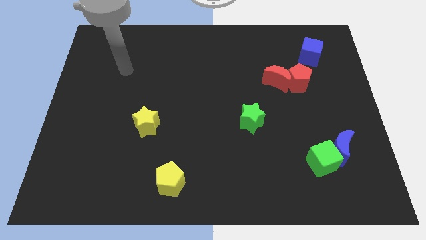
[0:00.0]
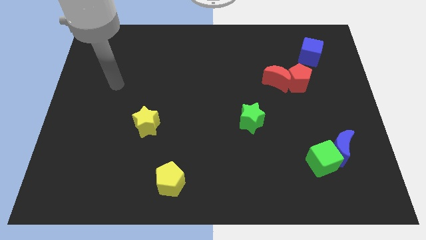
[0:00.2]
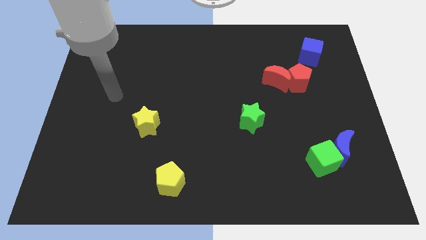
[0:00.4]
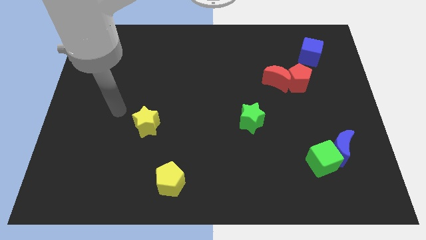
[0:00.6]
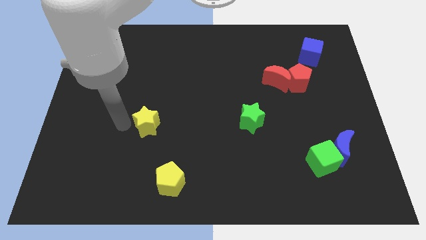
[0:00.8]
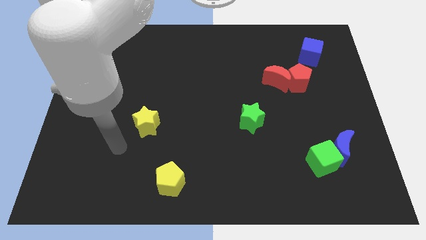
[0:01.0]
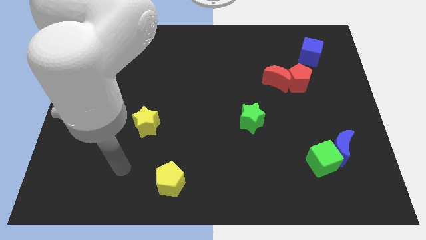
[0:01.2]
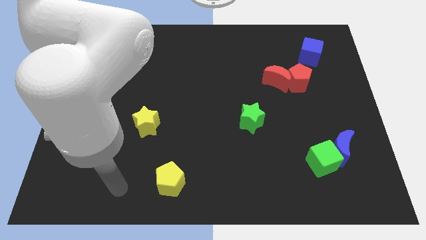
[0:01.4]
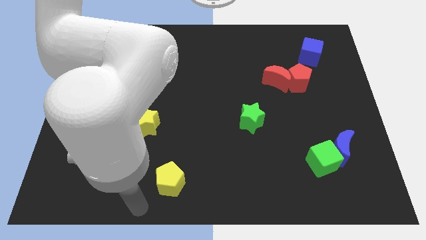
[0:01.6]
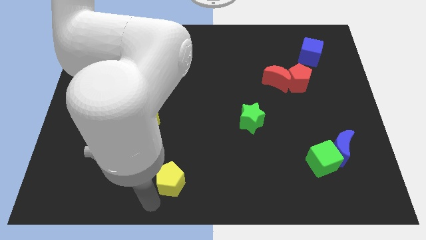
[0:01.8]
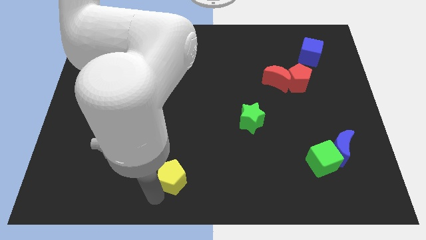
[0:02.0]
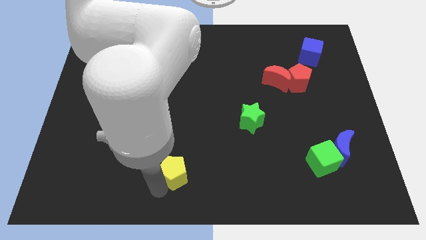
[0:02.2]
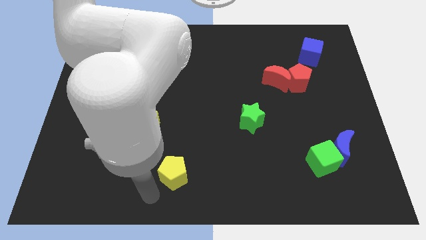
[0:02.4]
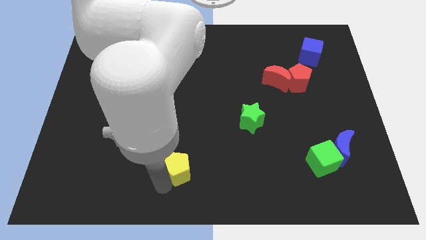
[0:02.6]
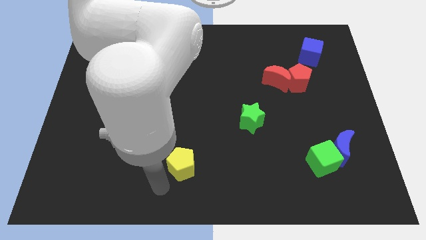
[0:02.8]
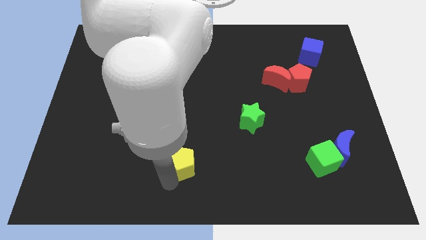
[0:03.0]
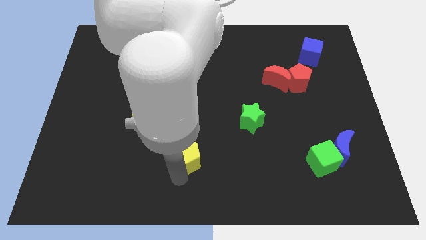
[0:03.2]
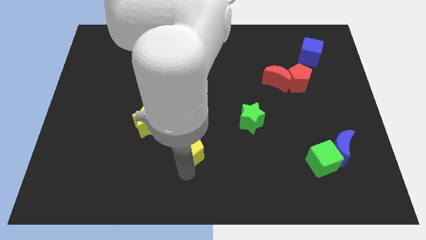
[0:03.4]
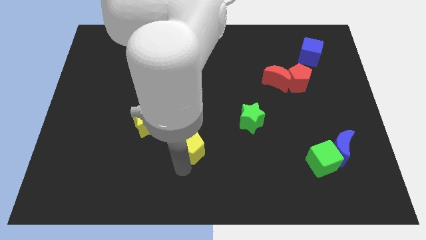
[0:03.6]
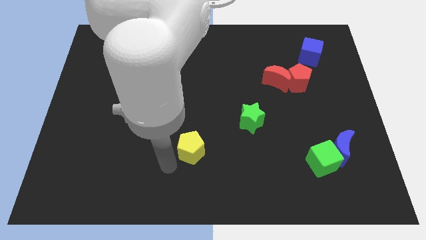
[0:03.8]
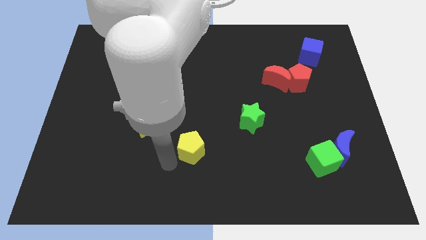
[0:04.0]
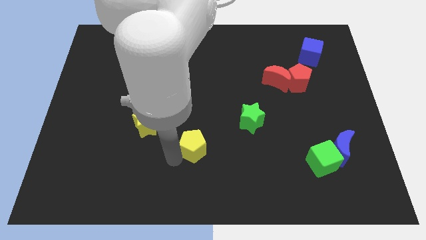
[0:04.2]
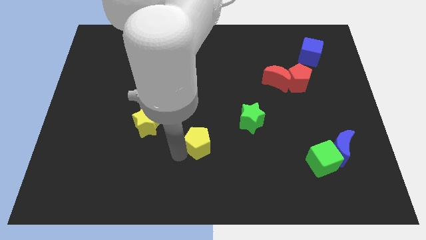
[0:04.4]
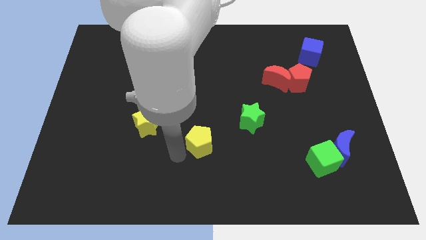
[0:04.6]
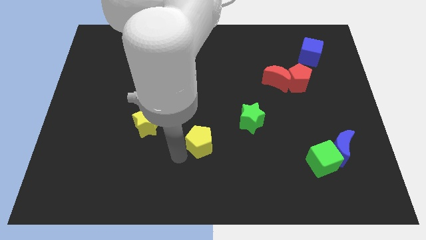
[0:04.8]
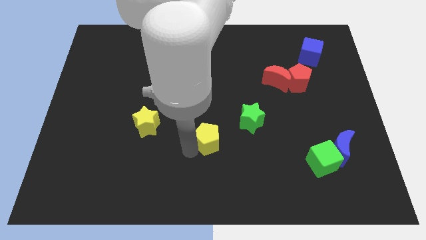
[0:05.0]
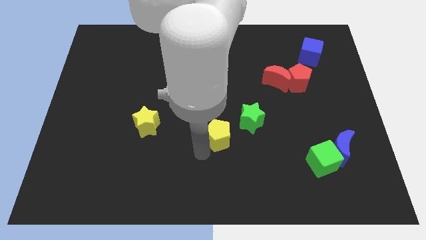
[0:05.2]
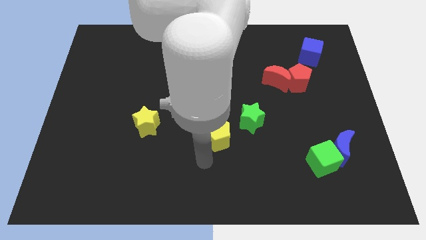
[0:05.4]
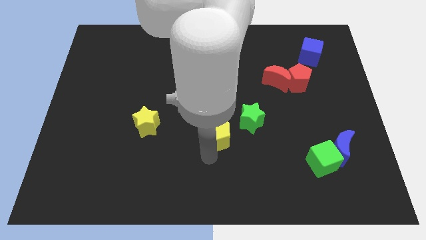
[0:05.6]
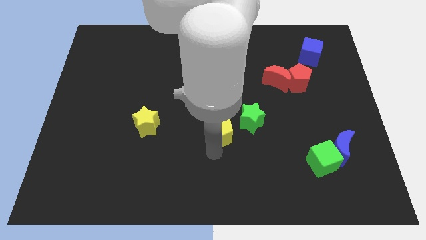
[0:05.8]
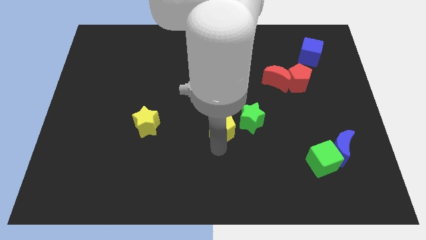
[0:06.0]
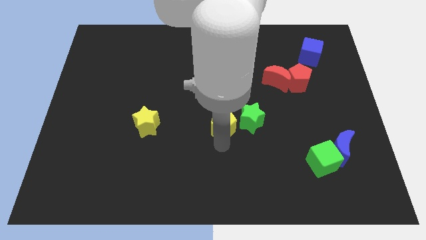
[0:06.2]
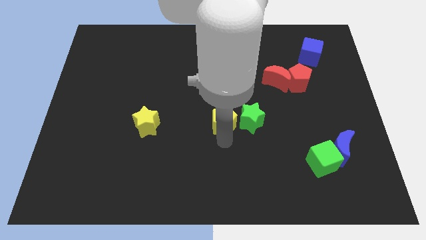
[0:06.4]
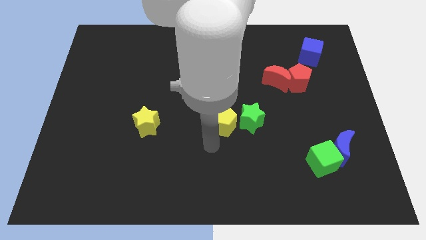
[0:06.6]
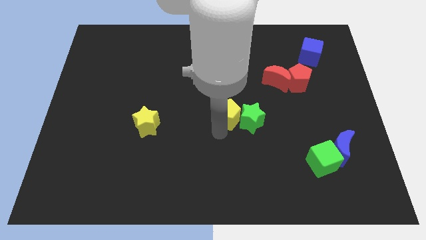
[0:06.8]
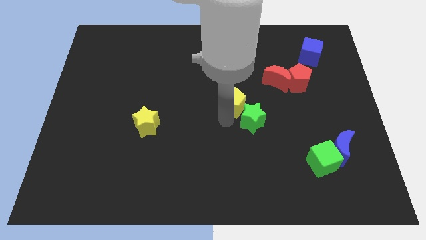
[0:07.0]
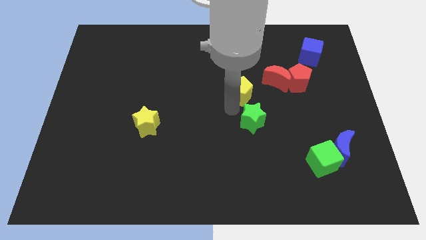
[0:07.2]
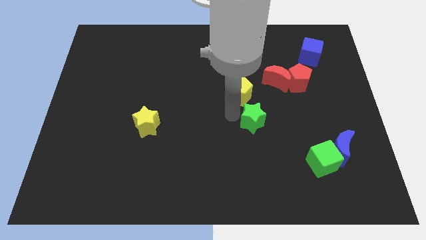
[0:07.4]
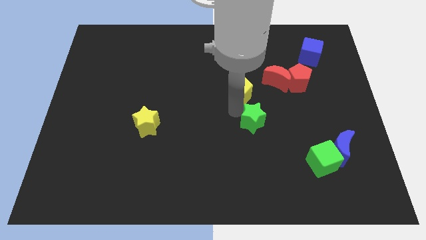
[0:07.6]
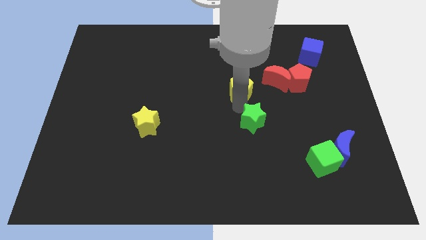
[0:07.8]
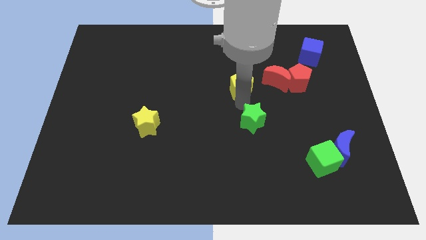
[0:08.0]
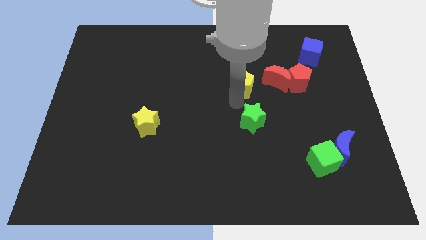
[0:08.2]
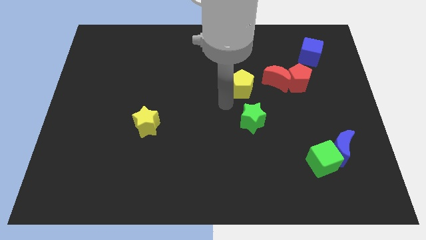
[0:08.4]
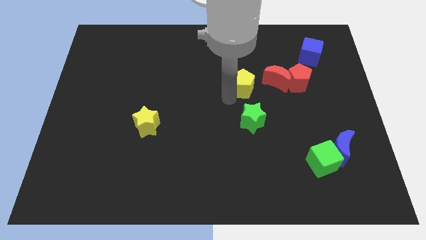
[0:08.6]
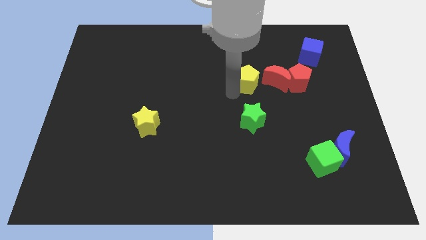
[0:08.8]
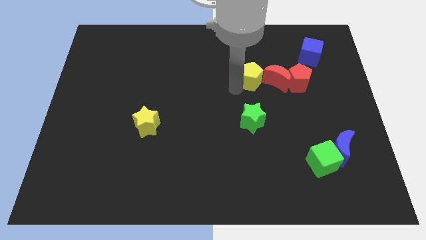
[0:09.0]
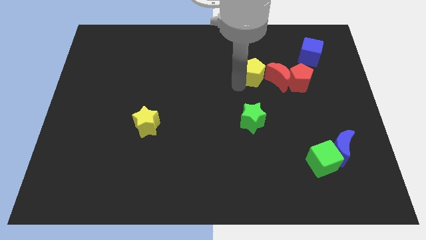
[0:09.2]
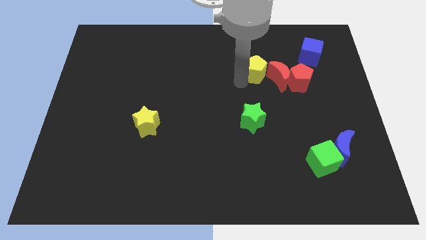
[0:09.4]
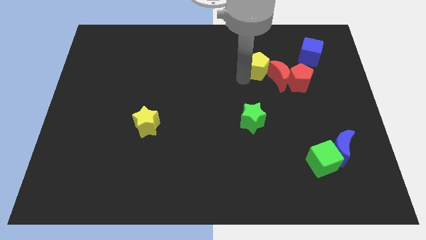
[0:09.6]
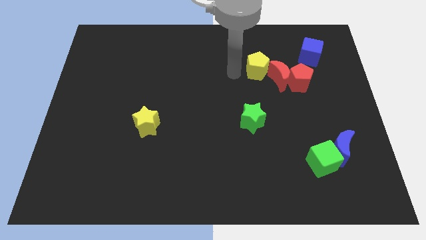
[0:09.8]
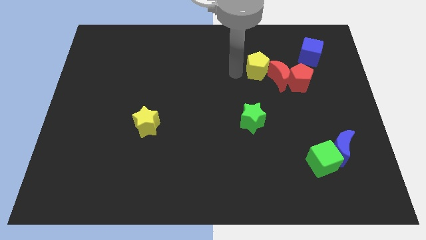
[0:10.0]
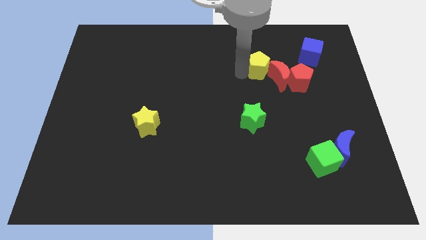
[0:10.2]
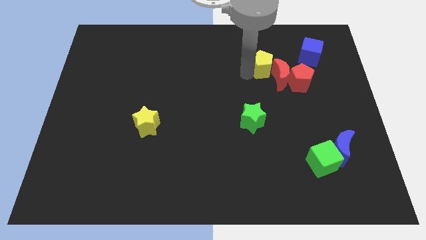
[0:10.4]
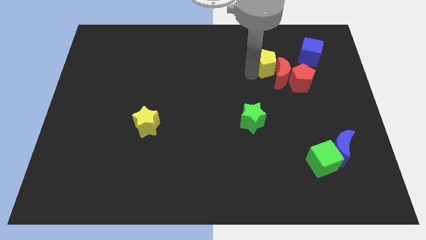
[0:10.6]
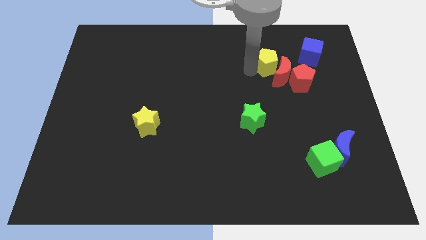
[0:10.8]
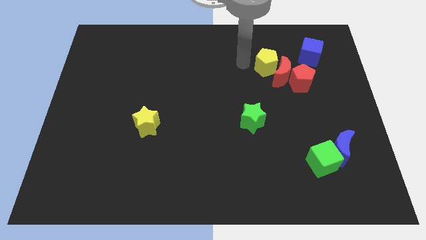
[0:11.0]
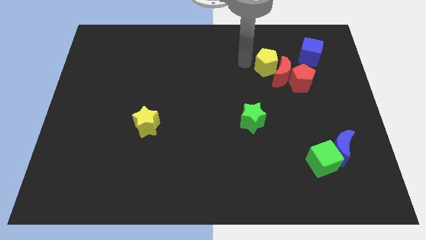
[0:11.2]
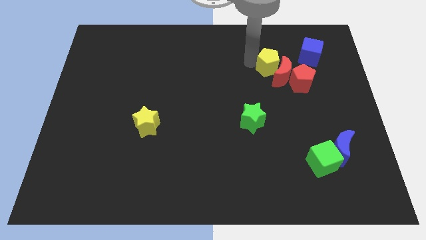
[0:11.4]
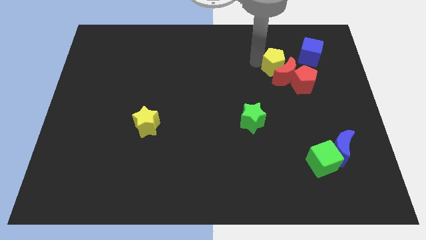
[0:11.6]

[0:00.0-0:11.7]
slide the yellow pentagon to the bottom left of the blue cube

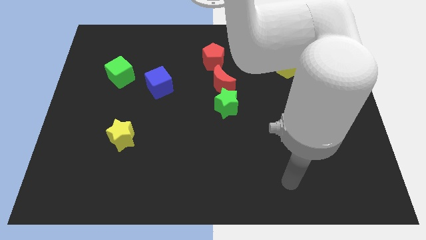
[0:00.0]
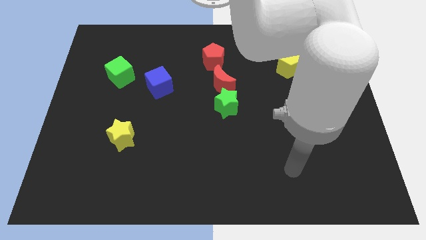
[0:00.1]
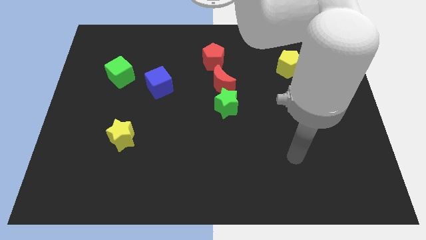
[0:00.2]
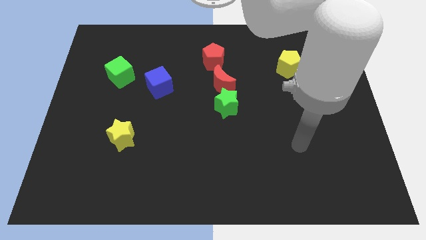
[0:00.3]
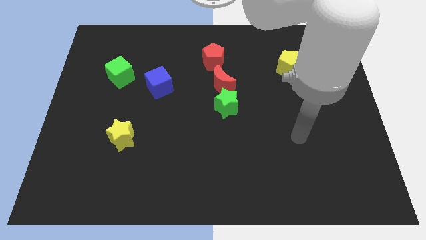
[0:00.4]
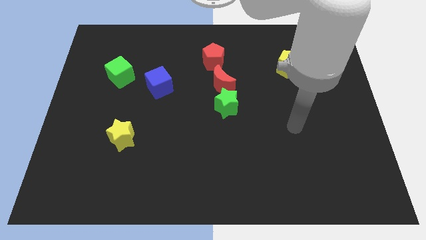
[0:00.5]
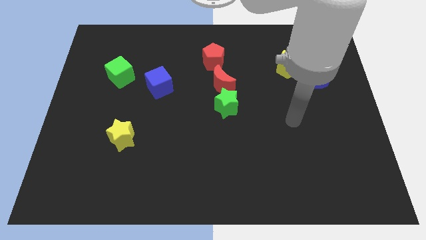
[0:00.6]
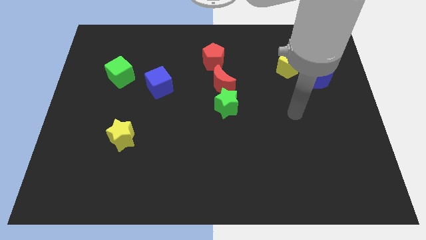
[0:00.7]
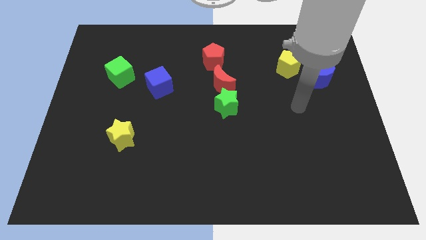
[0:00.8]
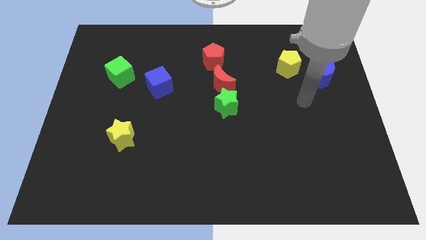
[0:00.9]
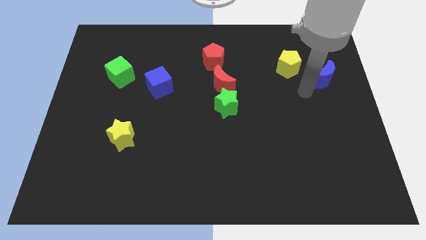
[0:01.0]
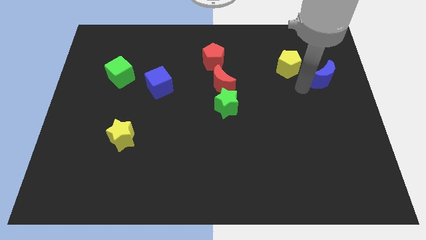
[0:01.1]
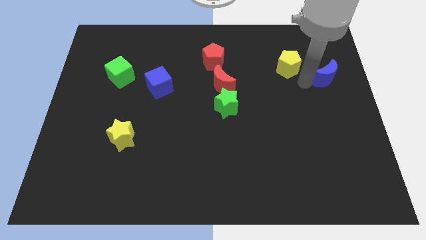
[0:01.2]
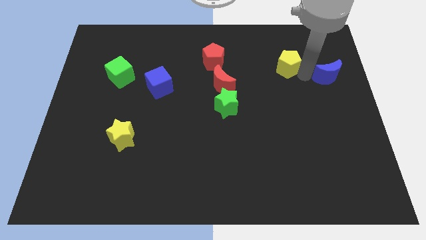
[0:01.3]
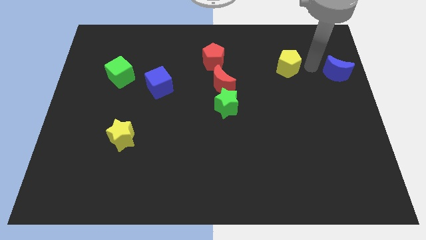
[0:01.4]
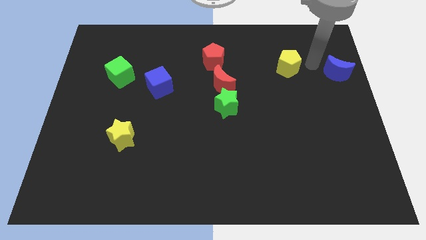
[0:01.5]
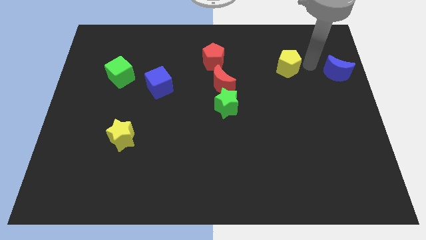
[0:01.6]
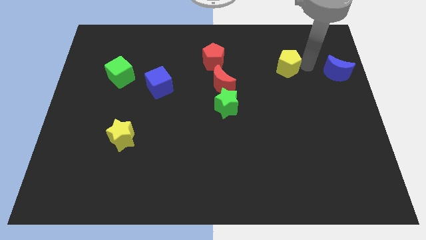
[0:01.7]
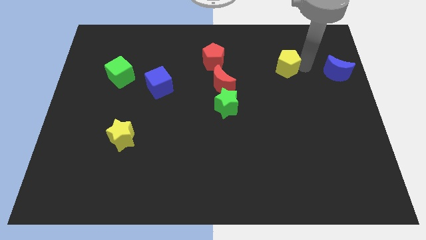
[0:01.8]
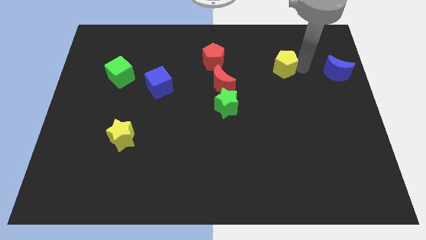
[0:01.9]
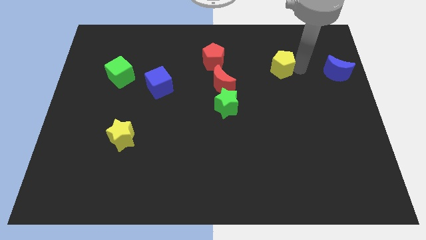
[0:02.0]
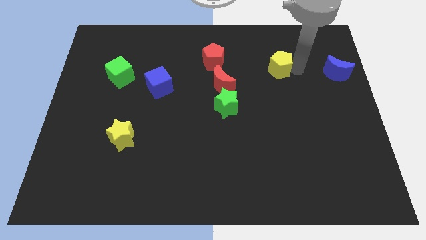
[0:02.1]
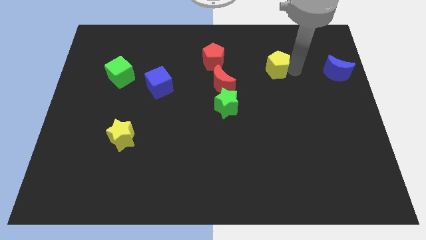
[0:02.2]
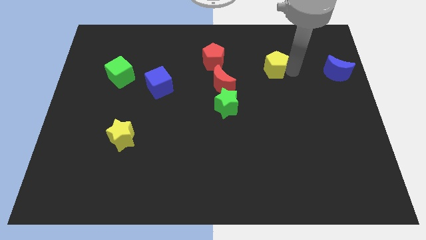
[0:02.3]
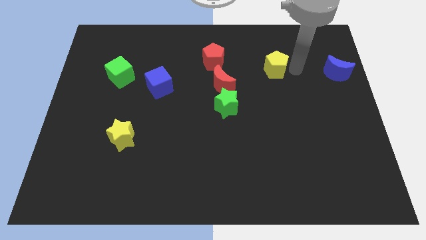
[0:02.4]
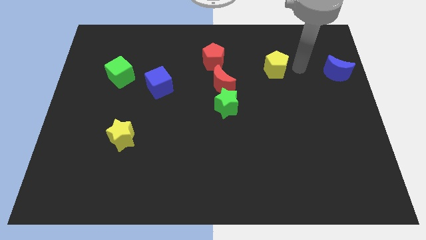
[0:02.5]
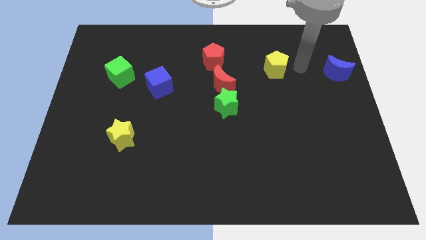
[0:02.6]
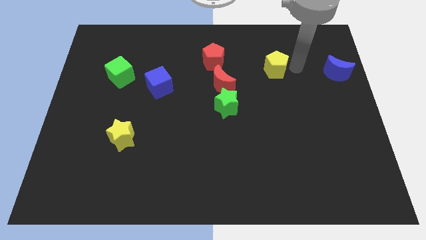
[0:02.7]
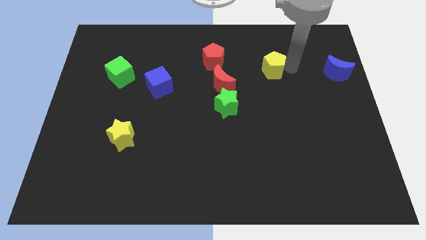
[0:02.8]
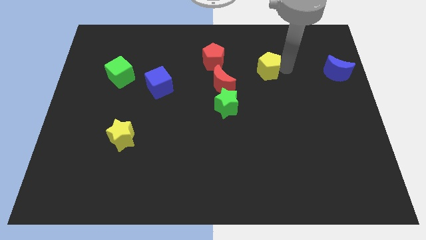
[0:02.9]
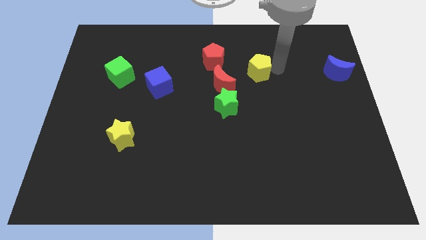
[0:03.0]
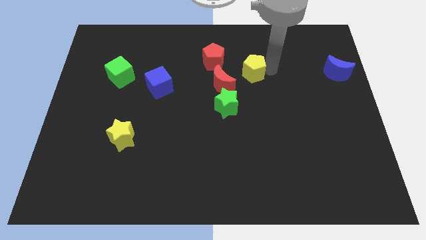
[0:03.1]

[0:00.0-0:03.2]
move the yellow pentagon to the bottom right side of the red pentagon
